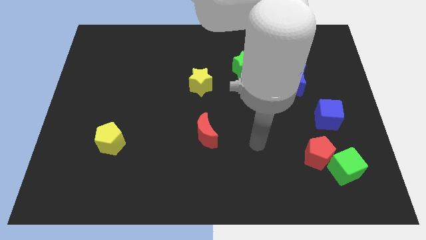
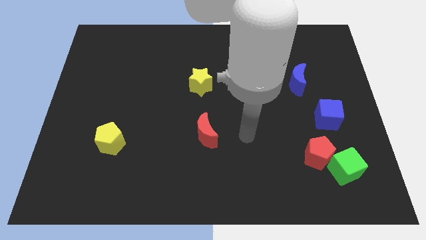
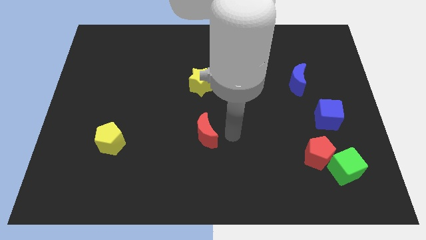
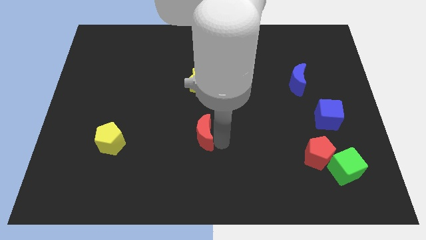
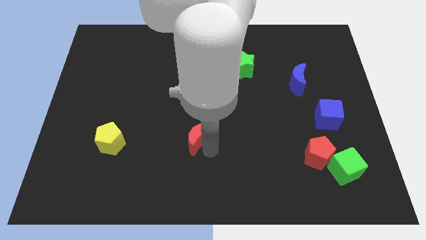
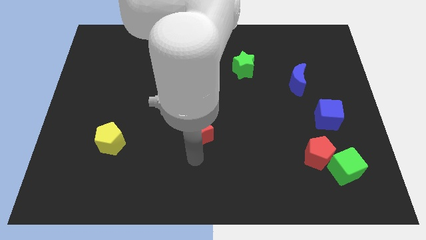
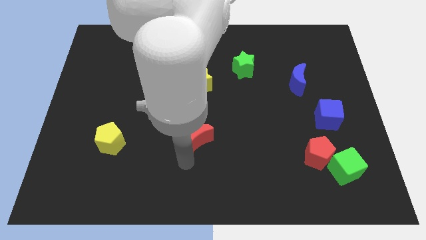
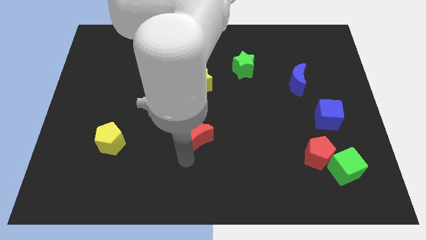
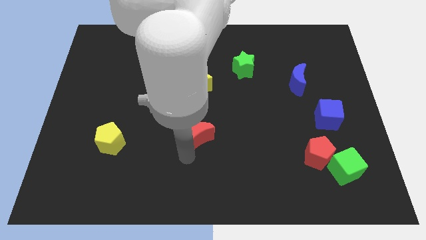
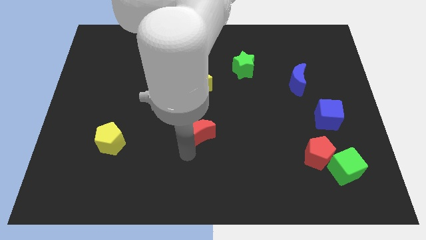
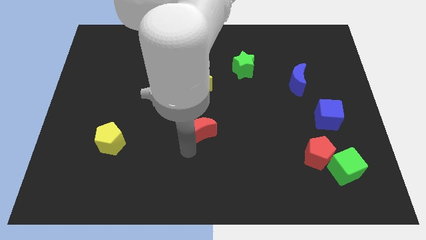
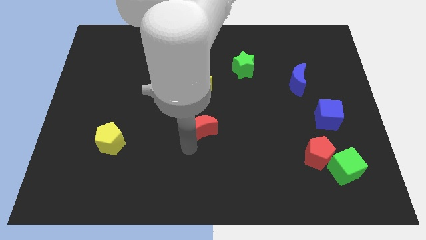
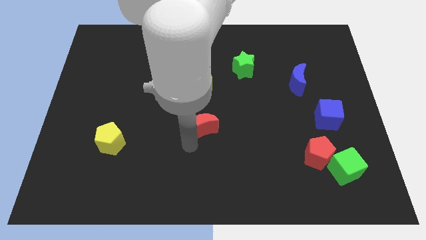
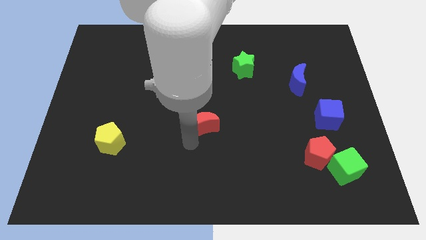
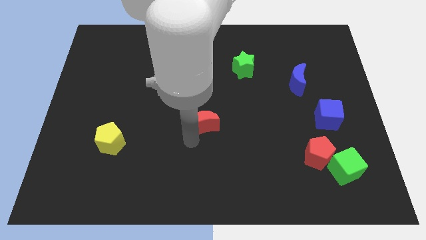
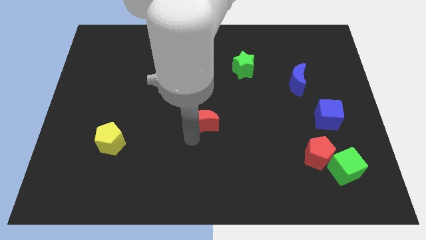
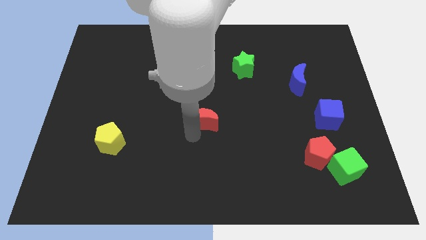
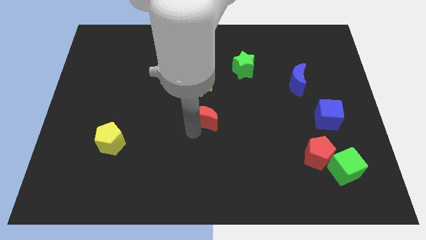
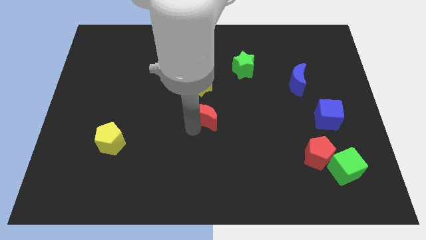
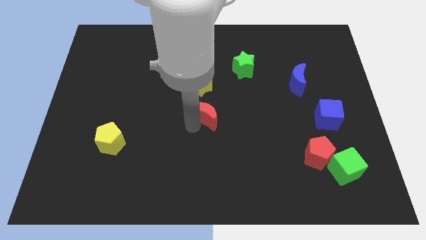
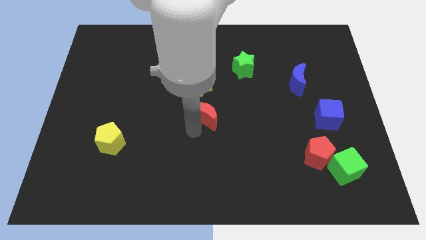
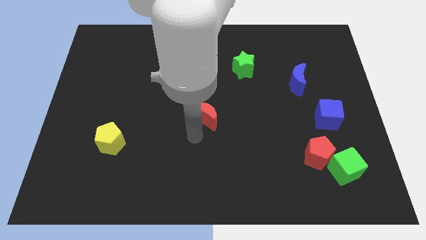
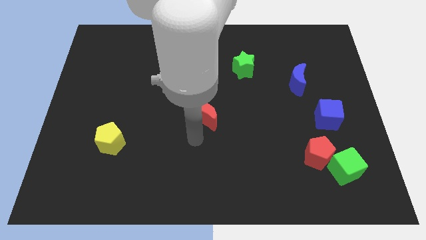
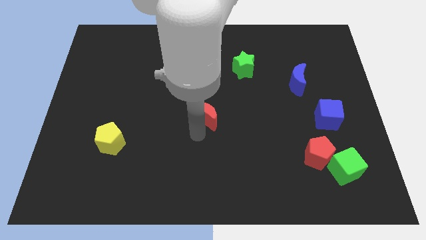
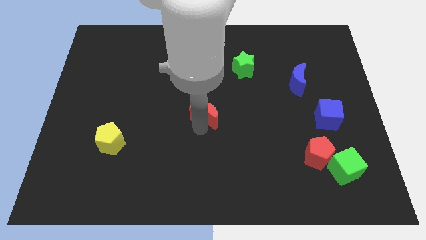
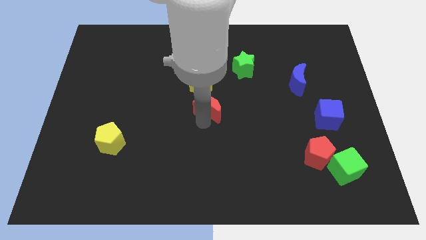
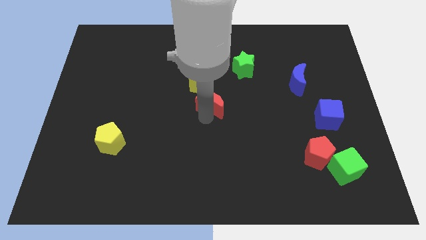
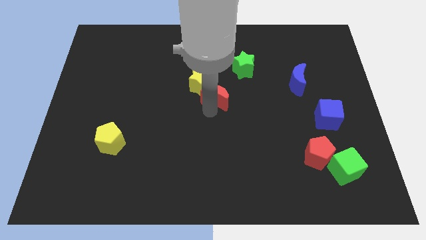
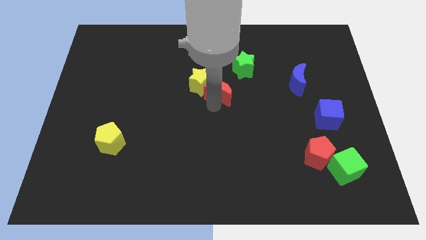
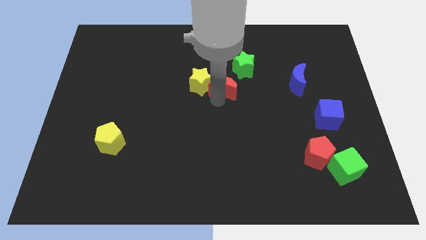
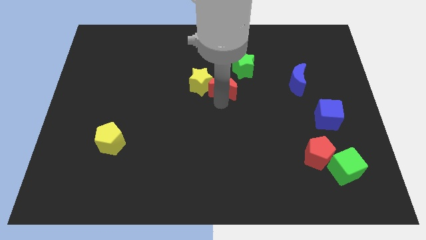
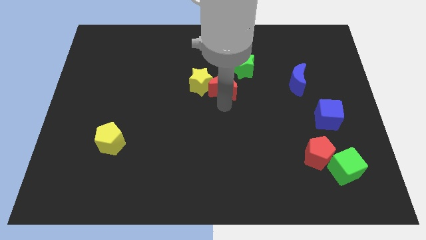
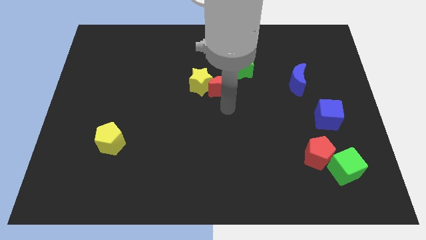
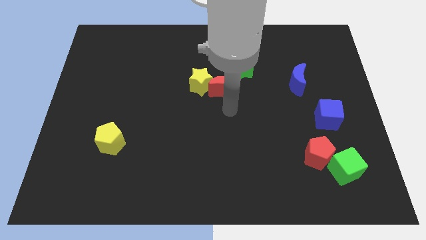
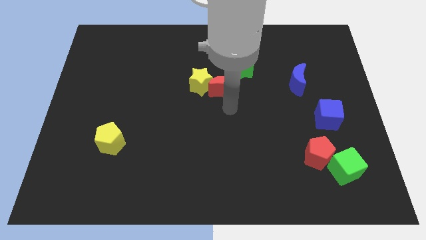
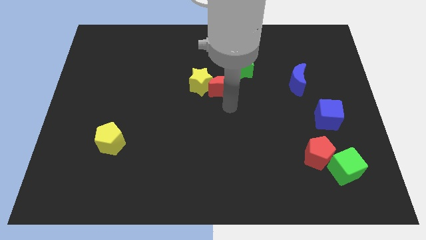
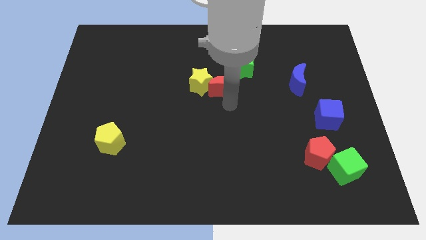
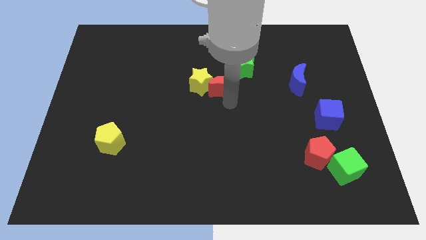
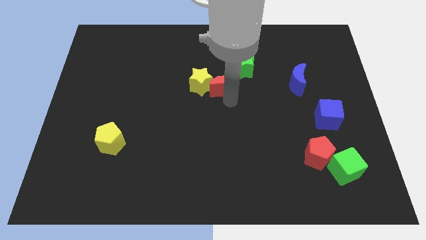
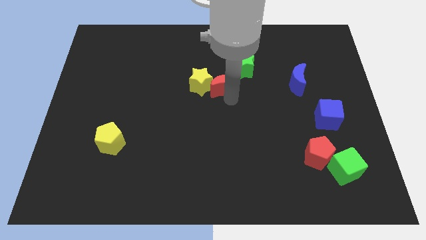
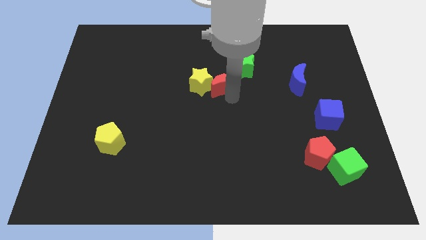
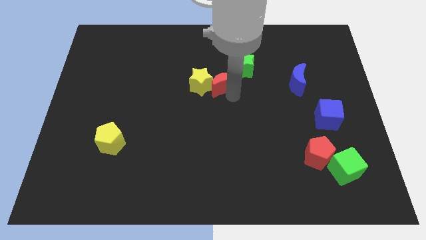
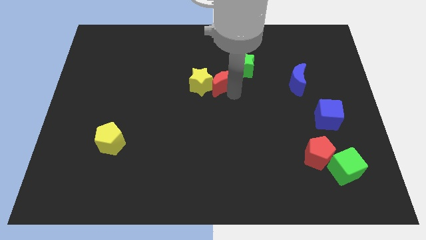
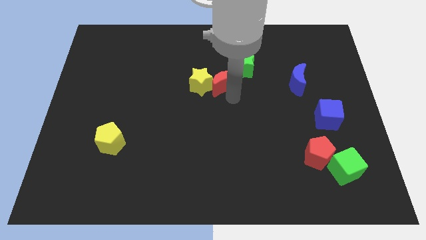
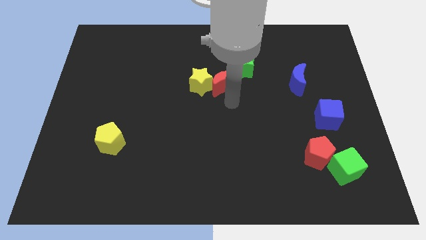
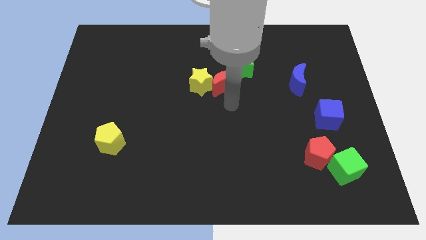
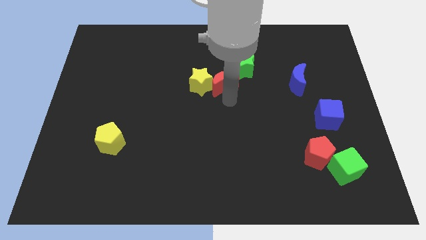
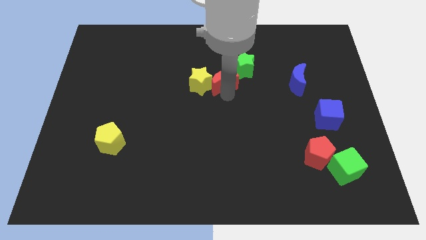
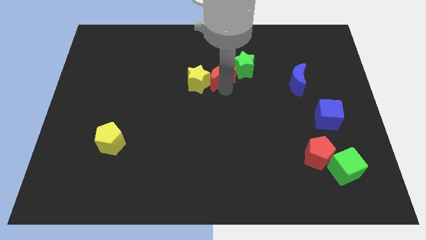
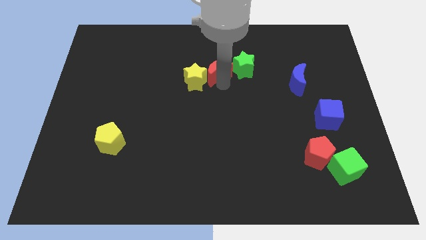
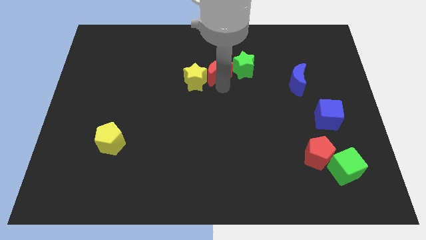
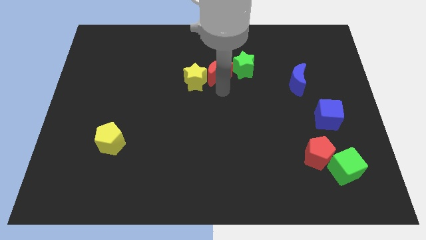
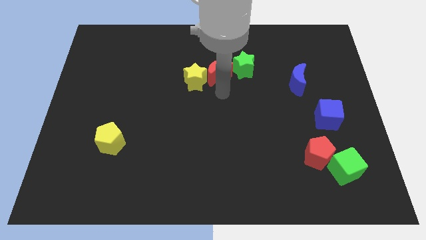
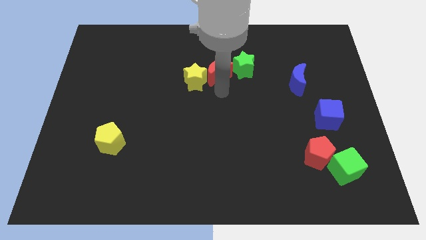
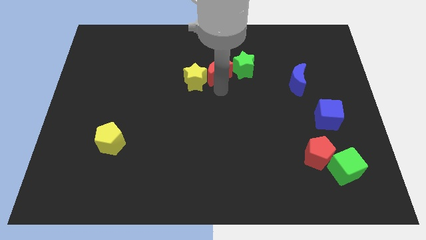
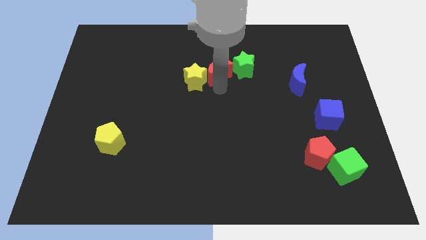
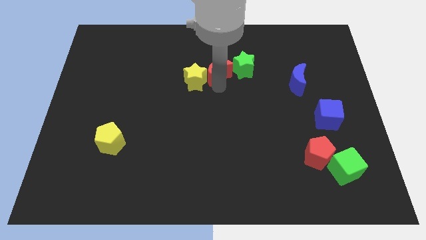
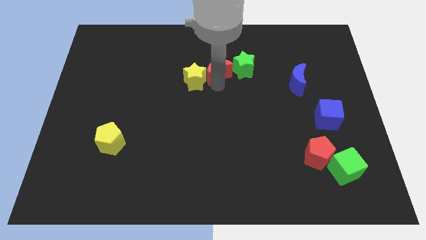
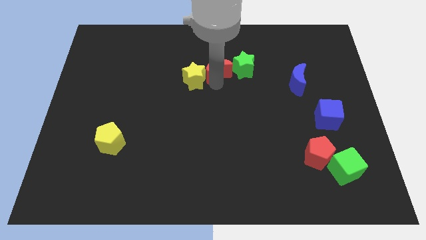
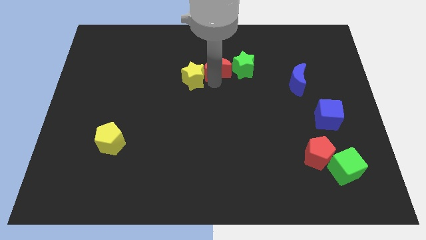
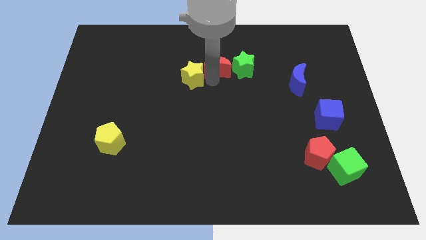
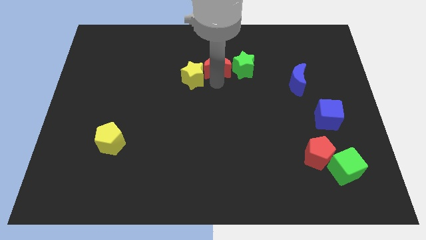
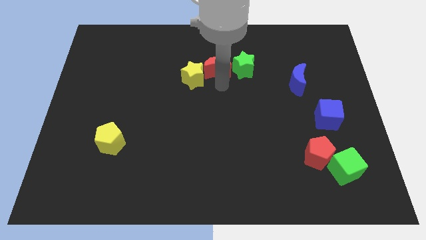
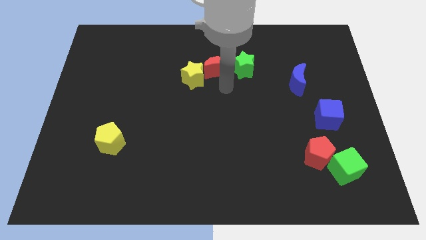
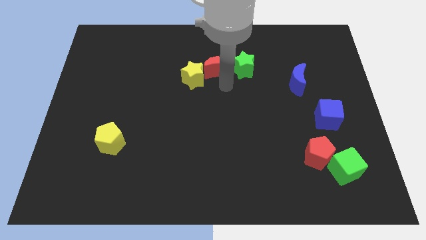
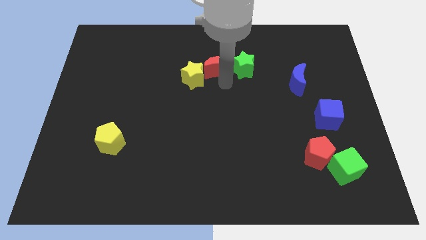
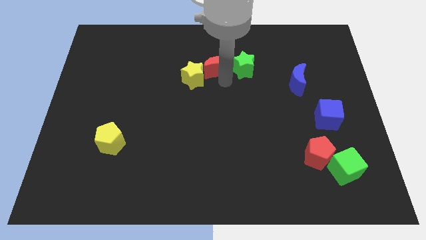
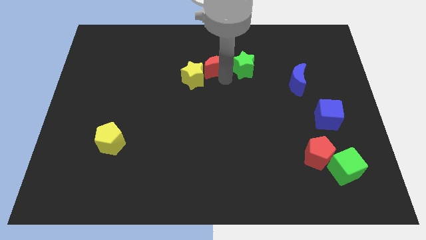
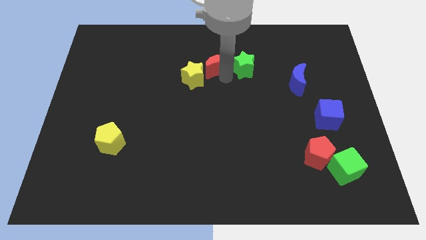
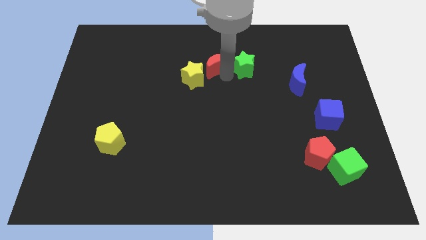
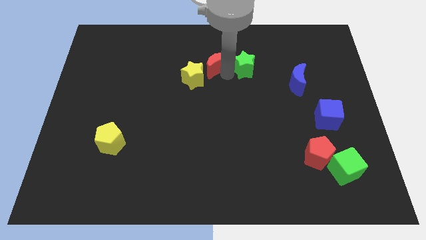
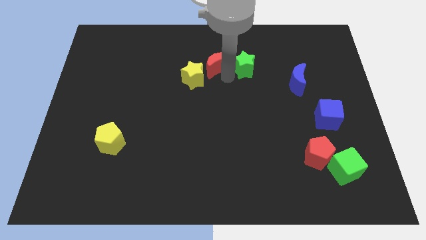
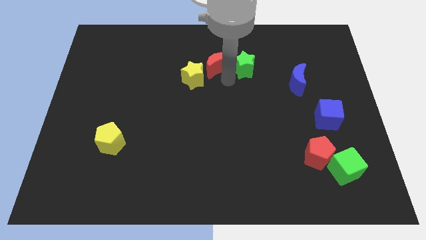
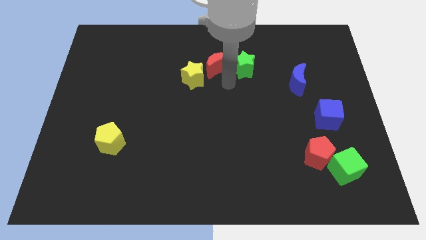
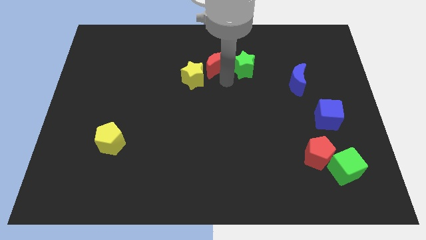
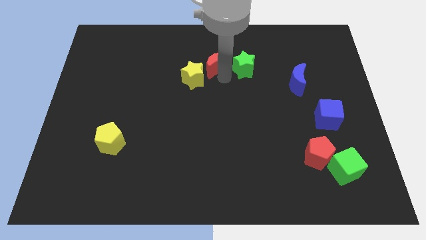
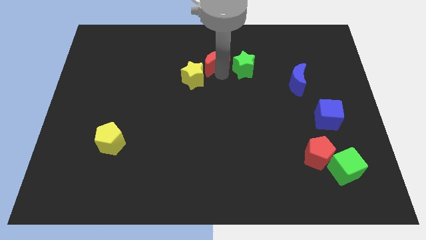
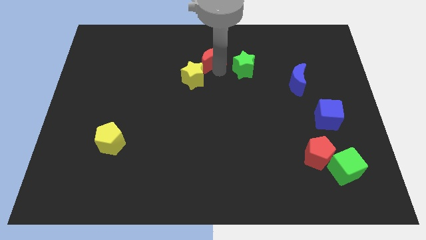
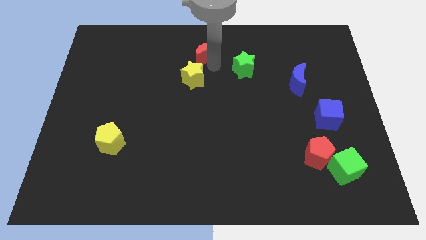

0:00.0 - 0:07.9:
push the red moon to the towards your base
